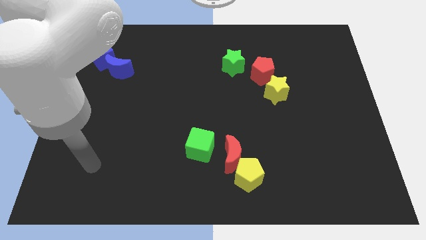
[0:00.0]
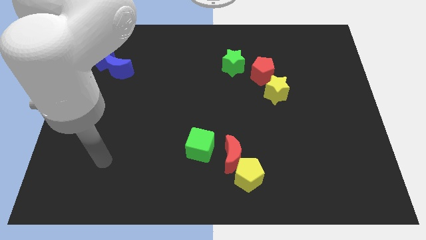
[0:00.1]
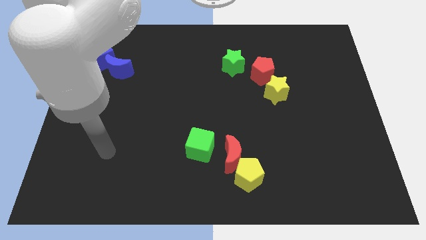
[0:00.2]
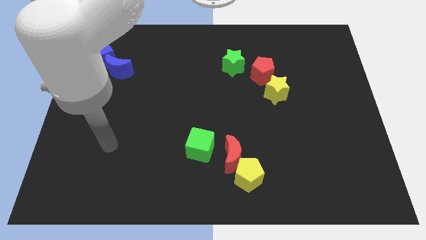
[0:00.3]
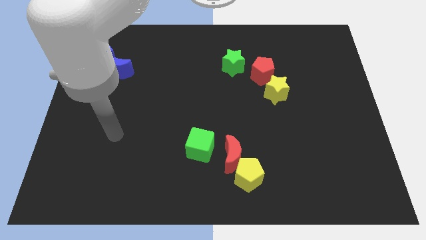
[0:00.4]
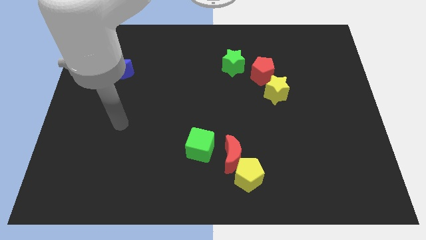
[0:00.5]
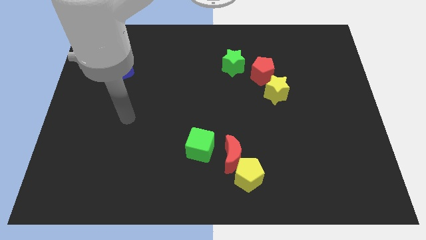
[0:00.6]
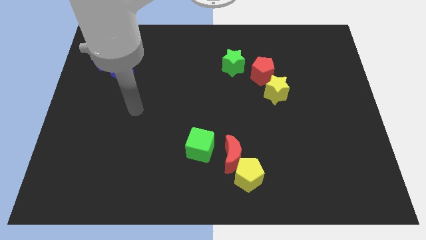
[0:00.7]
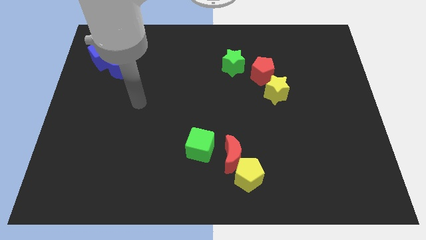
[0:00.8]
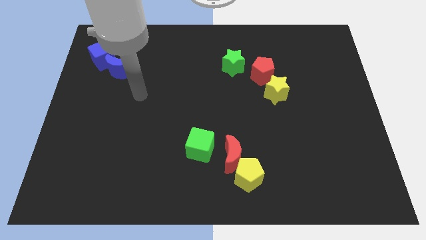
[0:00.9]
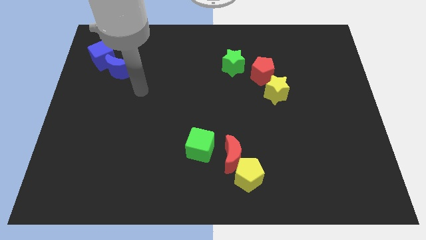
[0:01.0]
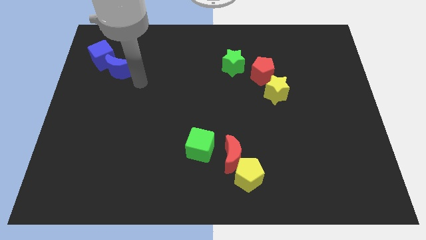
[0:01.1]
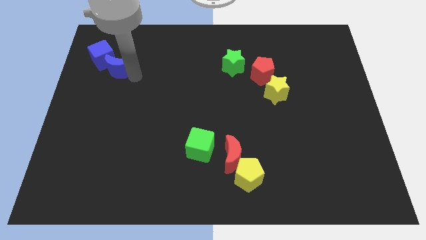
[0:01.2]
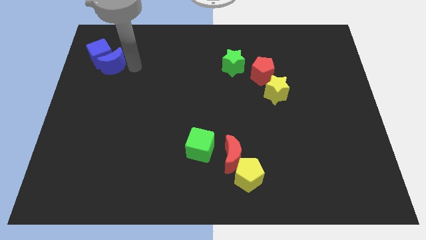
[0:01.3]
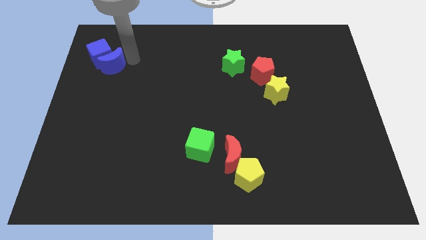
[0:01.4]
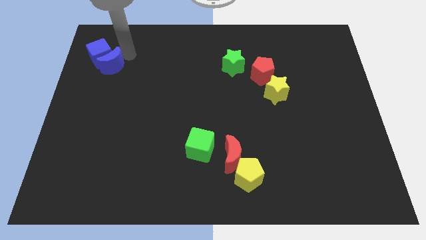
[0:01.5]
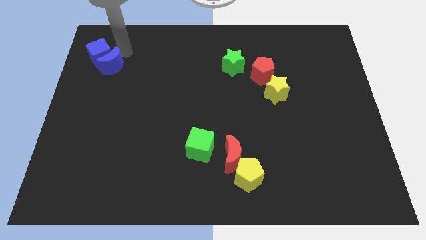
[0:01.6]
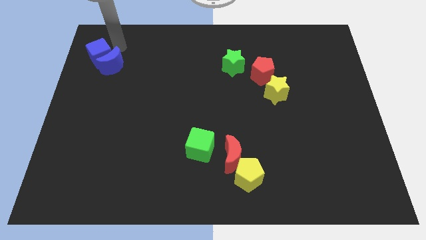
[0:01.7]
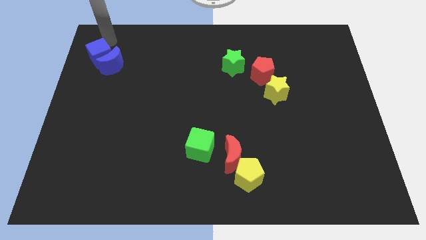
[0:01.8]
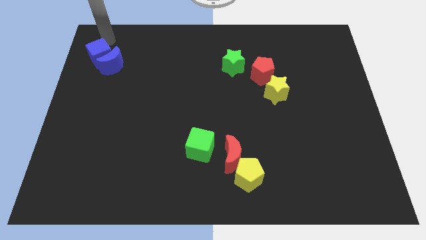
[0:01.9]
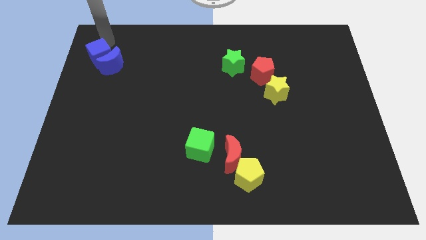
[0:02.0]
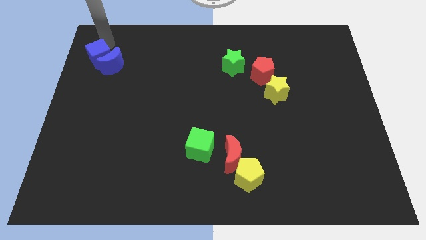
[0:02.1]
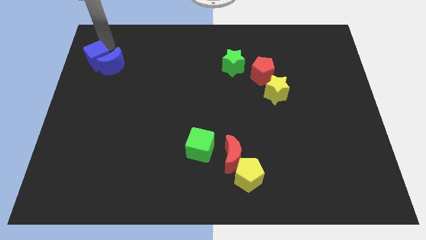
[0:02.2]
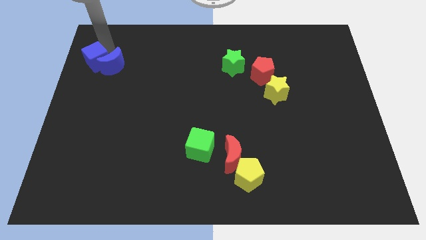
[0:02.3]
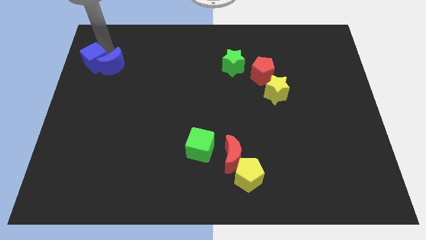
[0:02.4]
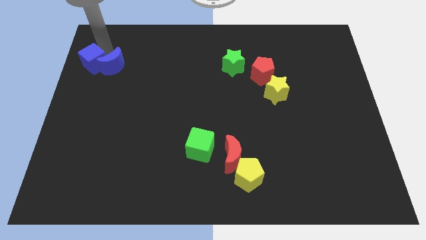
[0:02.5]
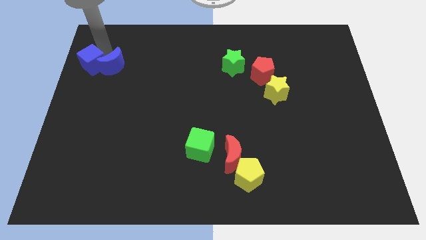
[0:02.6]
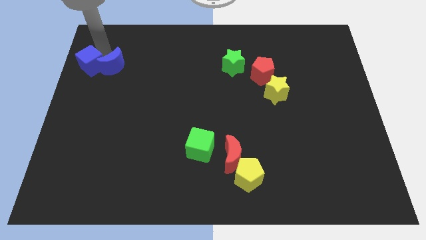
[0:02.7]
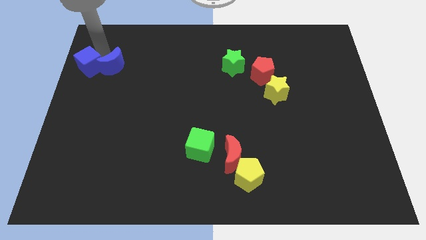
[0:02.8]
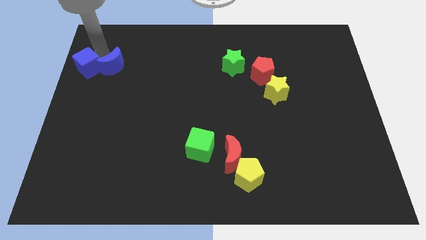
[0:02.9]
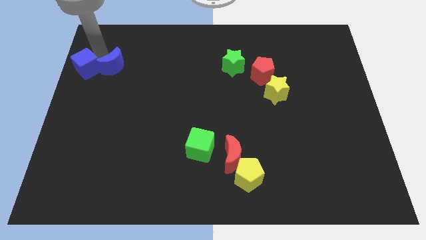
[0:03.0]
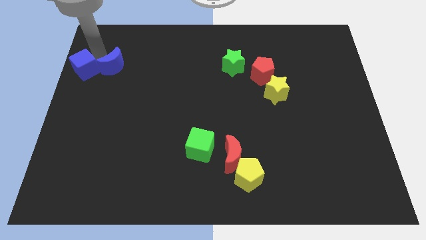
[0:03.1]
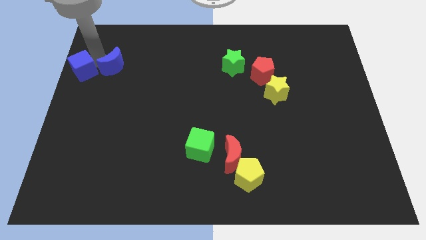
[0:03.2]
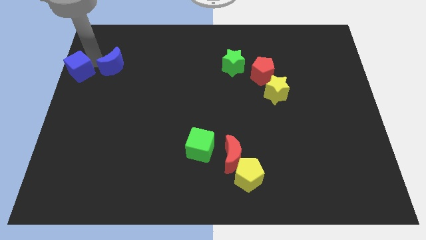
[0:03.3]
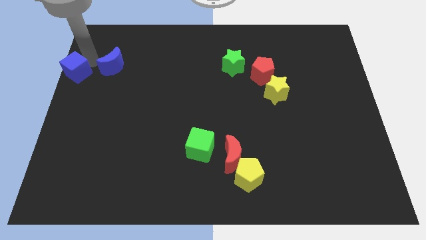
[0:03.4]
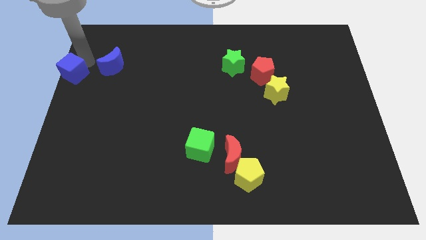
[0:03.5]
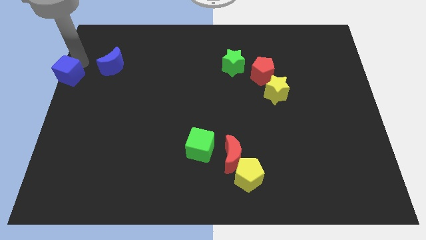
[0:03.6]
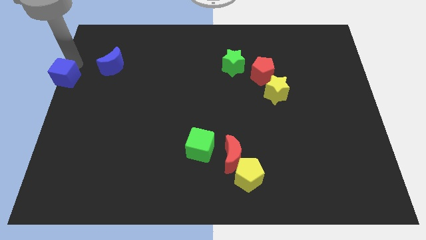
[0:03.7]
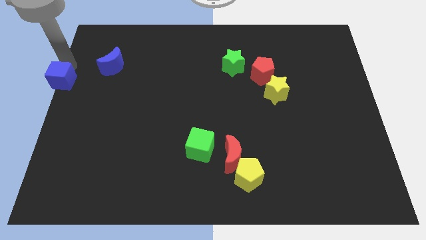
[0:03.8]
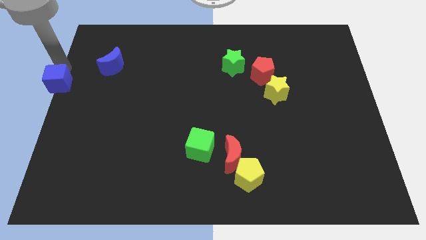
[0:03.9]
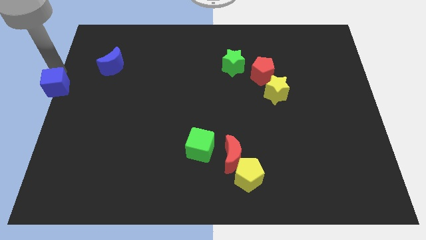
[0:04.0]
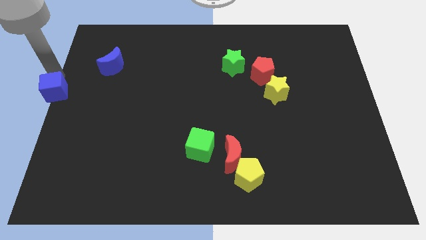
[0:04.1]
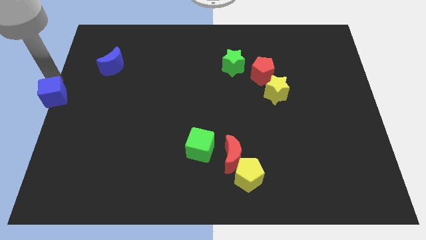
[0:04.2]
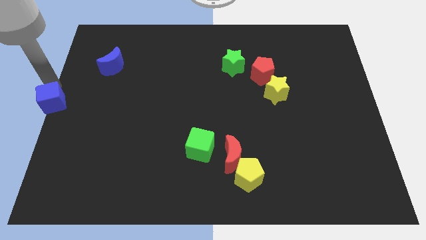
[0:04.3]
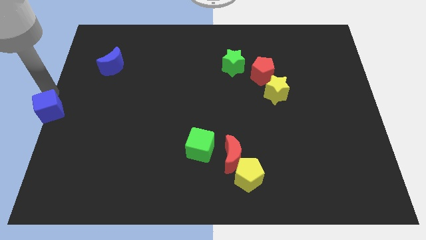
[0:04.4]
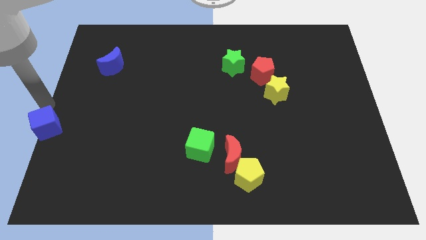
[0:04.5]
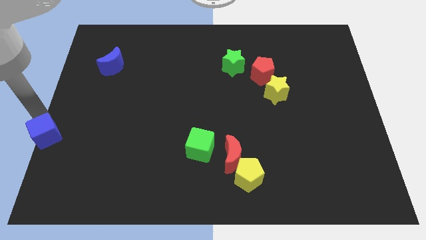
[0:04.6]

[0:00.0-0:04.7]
push the blue cube downwards

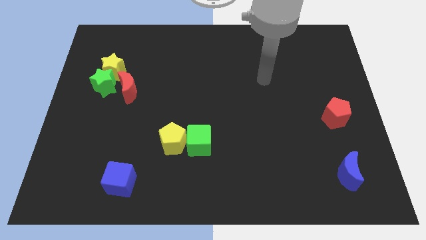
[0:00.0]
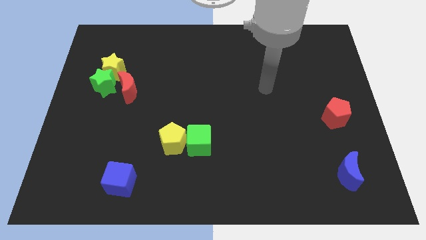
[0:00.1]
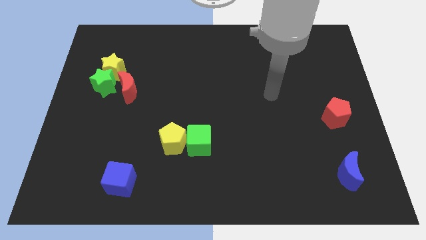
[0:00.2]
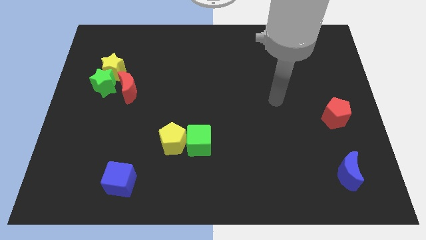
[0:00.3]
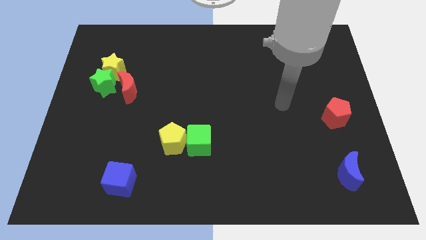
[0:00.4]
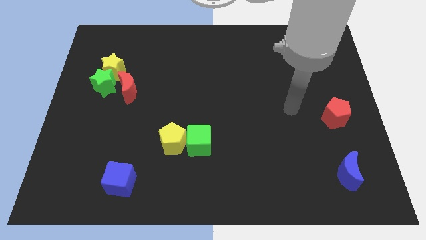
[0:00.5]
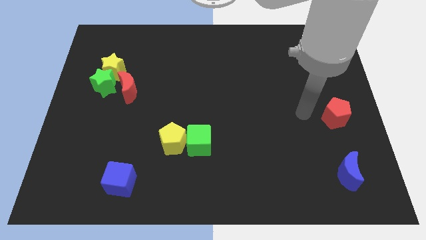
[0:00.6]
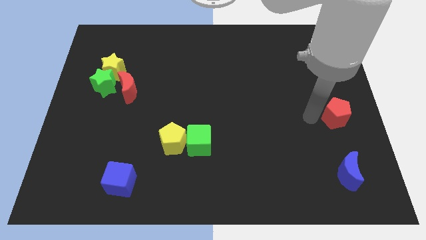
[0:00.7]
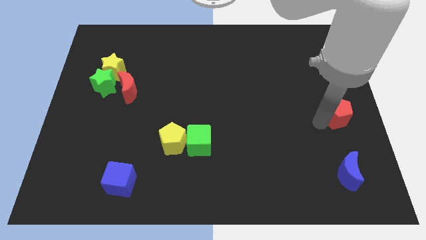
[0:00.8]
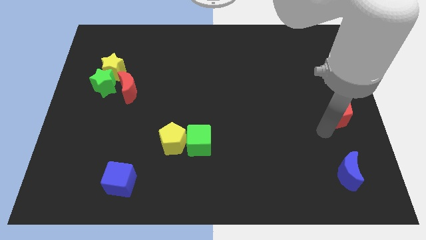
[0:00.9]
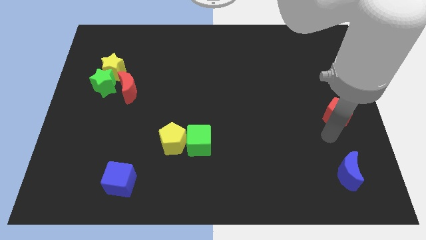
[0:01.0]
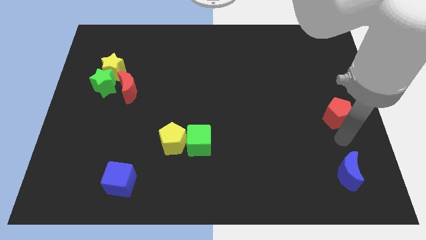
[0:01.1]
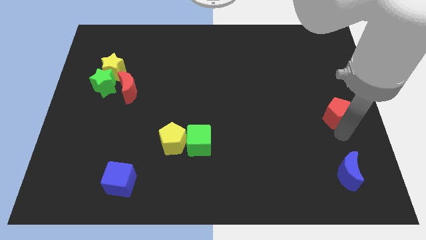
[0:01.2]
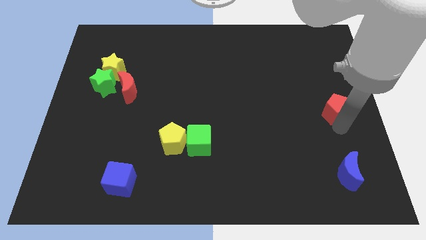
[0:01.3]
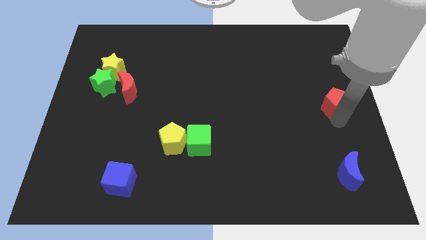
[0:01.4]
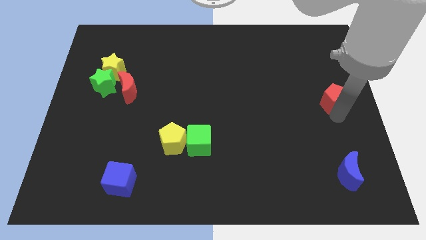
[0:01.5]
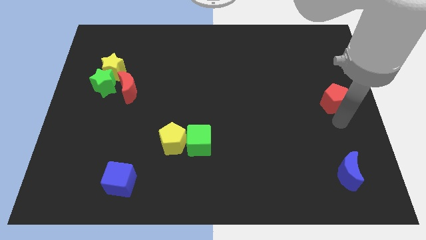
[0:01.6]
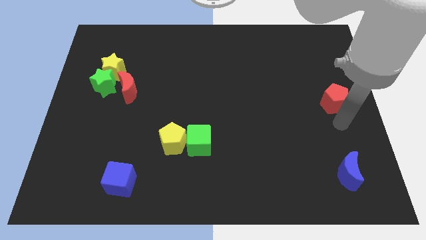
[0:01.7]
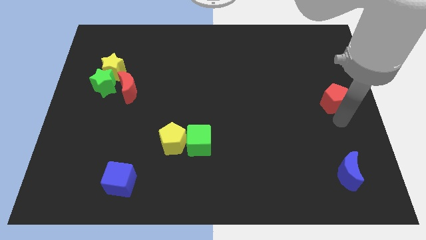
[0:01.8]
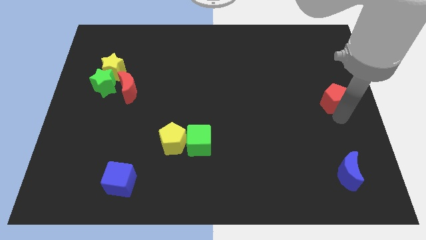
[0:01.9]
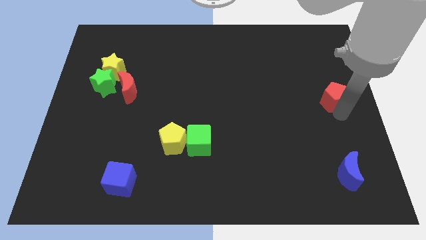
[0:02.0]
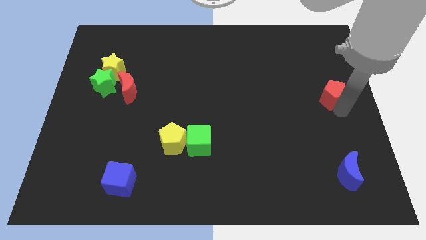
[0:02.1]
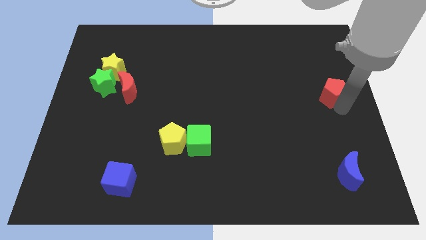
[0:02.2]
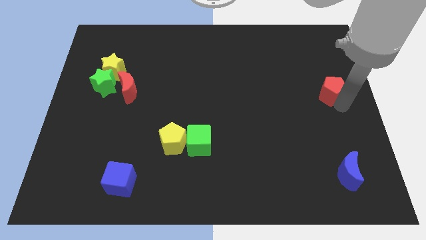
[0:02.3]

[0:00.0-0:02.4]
slightly slide the red pentagon upwards

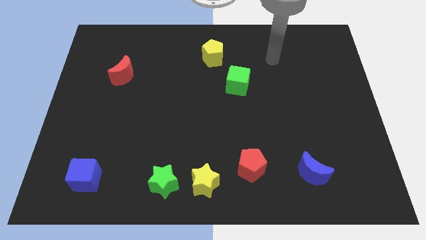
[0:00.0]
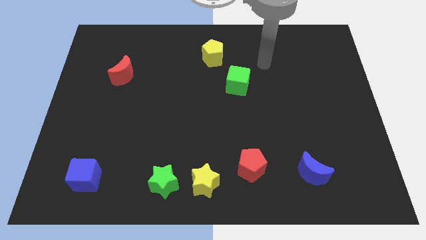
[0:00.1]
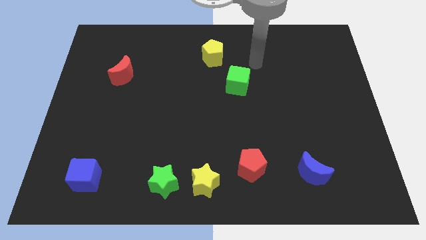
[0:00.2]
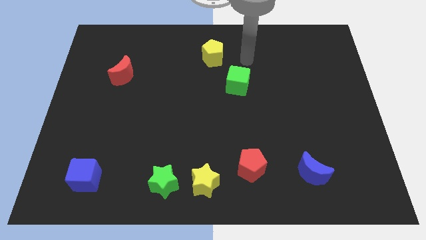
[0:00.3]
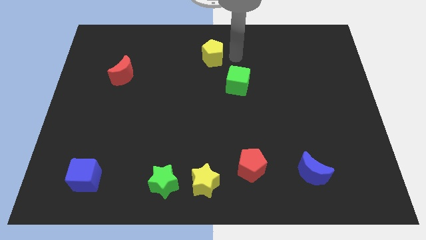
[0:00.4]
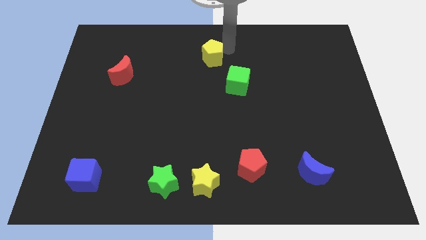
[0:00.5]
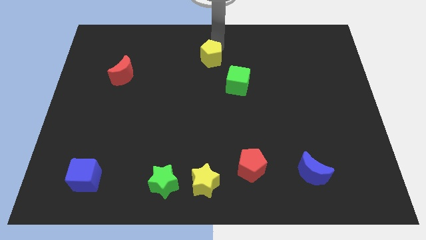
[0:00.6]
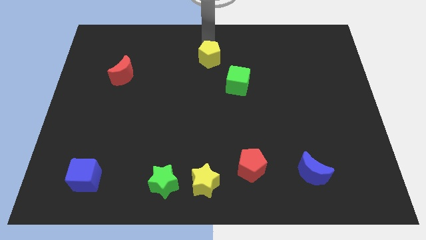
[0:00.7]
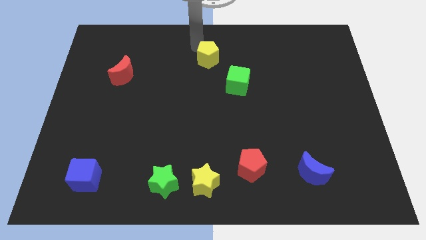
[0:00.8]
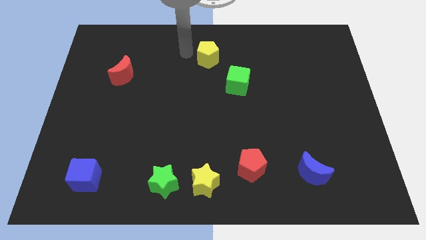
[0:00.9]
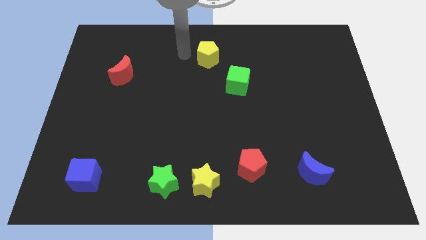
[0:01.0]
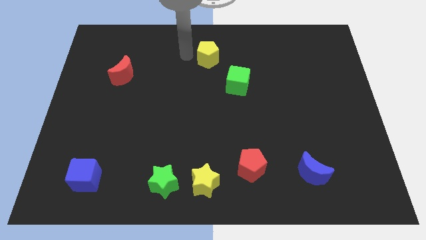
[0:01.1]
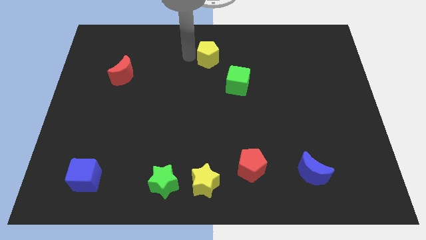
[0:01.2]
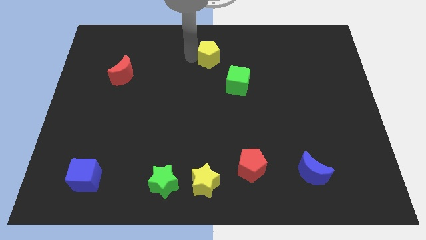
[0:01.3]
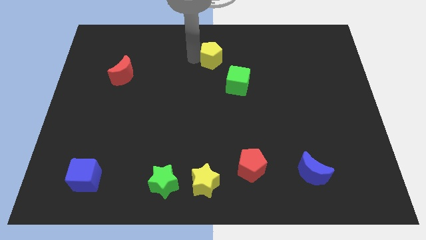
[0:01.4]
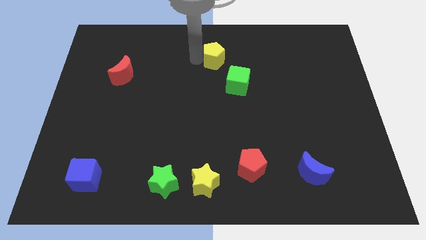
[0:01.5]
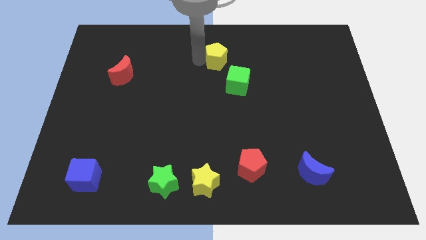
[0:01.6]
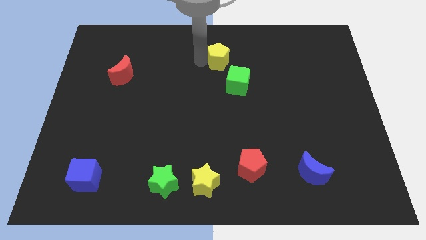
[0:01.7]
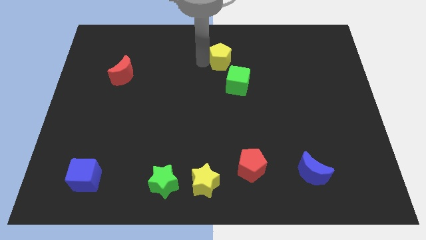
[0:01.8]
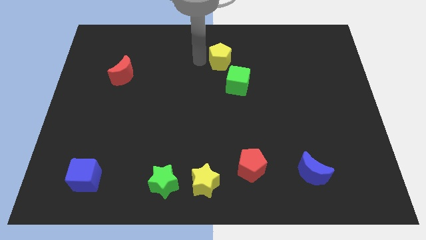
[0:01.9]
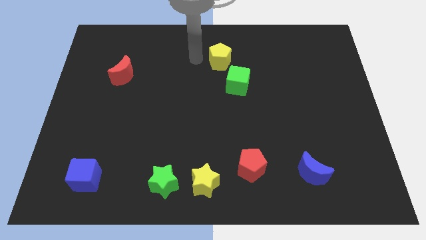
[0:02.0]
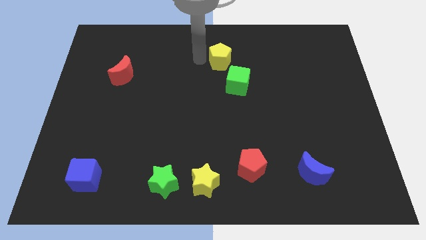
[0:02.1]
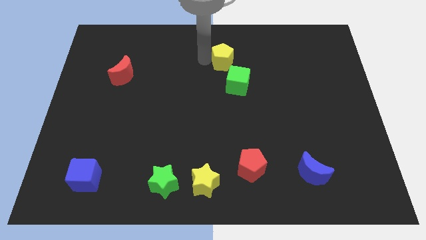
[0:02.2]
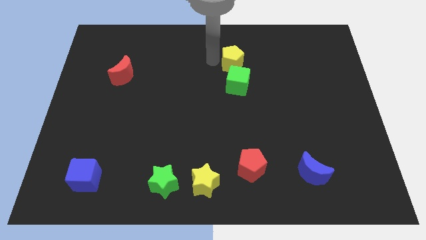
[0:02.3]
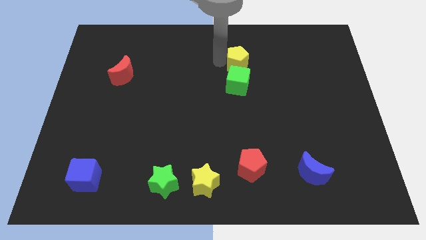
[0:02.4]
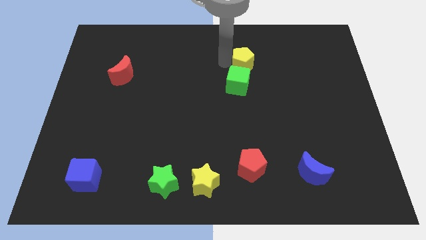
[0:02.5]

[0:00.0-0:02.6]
push the yellow pentagon right a little
